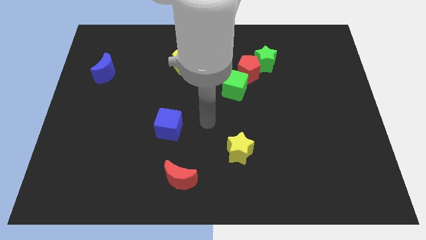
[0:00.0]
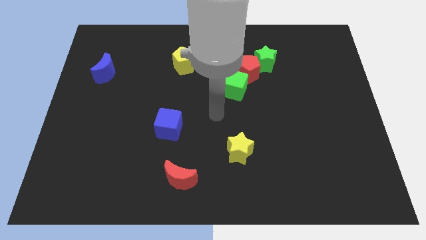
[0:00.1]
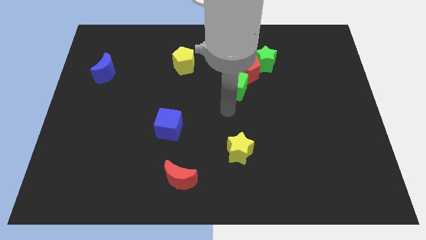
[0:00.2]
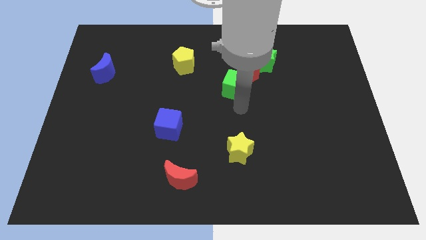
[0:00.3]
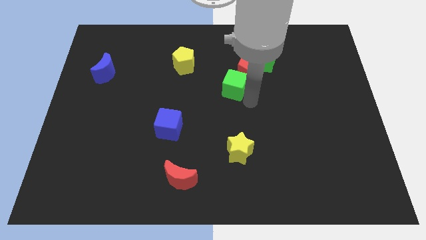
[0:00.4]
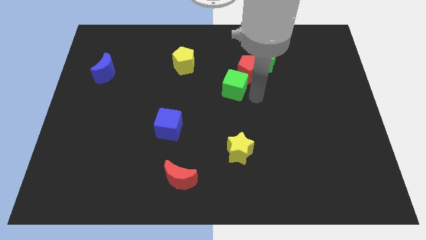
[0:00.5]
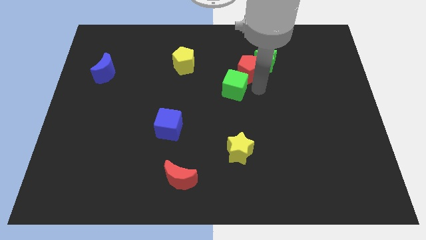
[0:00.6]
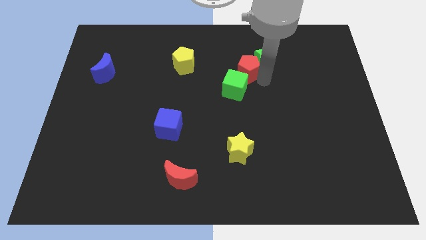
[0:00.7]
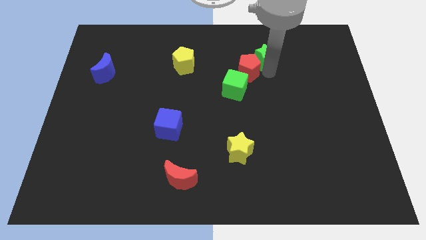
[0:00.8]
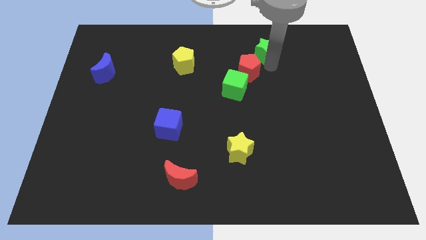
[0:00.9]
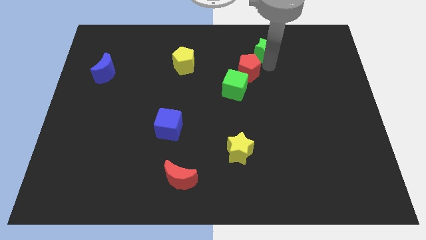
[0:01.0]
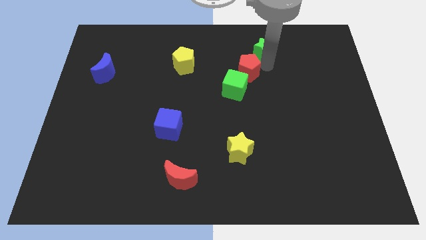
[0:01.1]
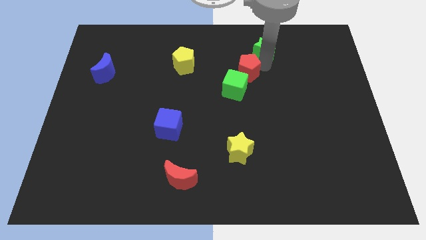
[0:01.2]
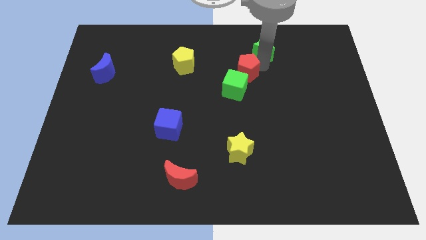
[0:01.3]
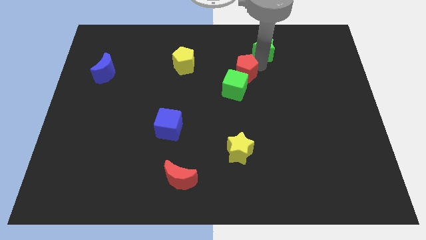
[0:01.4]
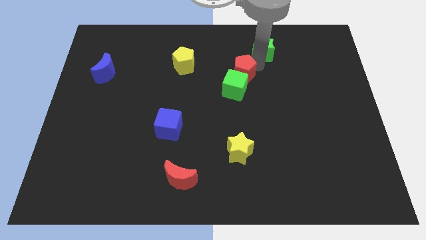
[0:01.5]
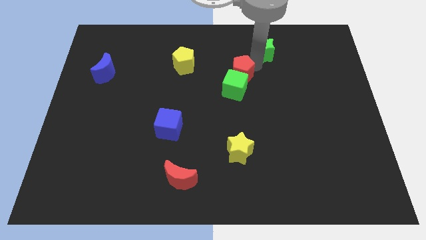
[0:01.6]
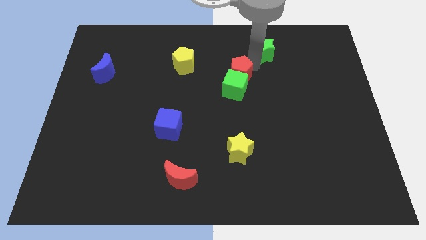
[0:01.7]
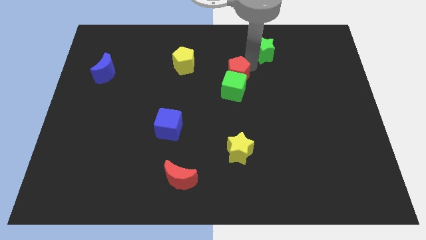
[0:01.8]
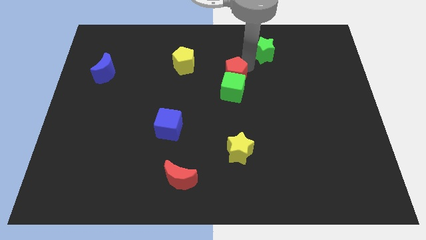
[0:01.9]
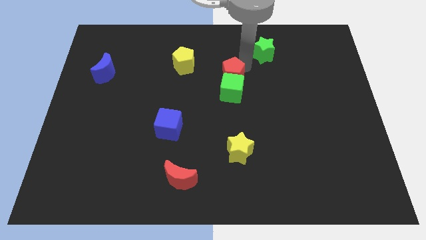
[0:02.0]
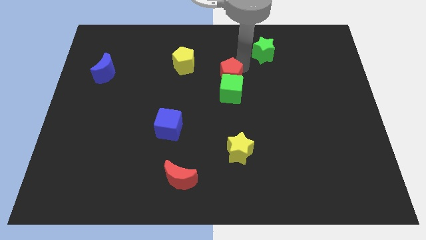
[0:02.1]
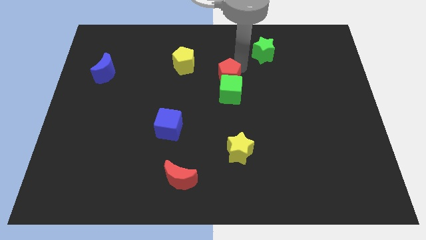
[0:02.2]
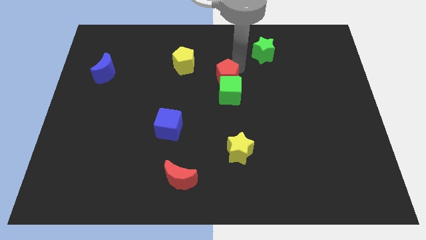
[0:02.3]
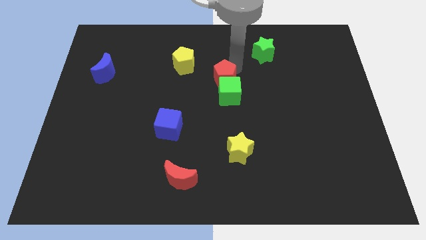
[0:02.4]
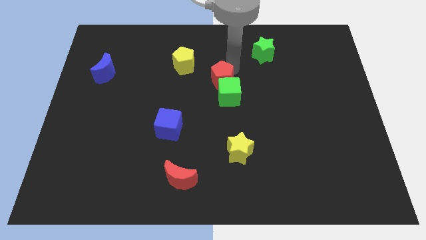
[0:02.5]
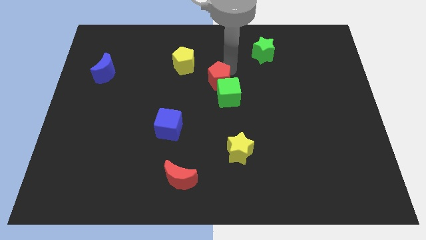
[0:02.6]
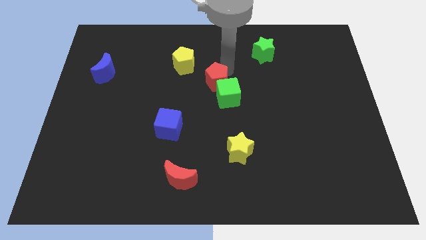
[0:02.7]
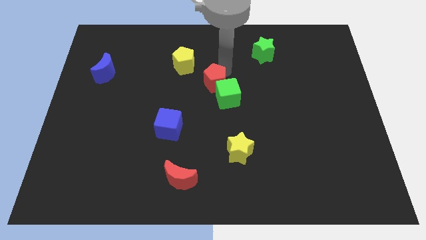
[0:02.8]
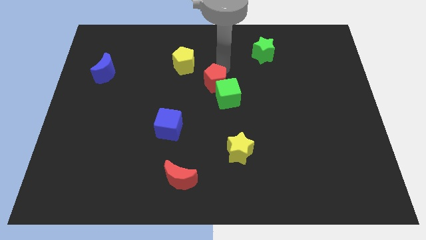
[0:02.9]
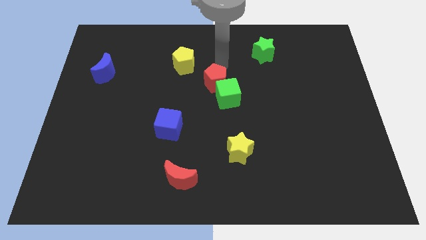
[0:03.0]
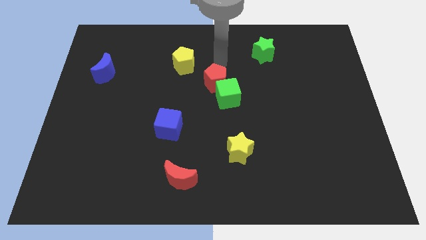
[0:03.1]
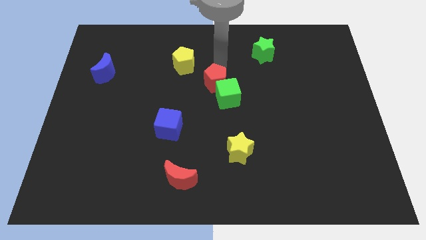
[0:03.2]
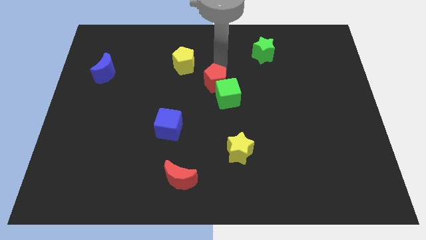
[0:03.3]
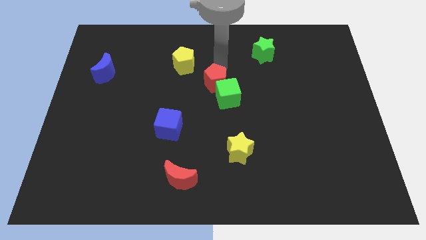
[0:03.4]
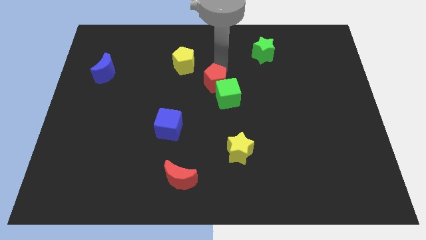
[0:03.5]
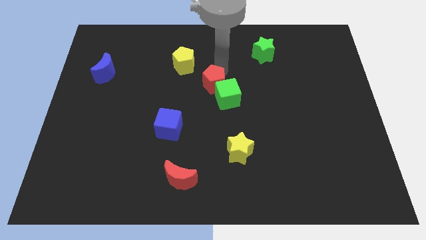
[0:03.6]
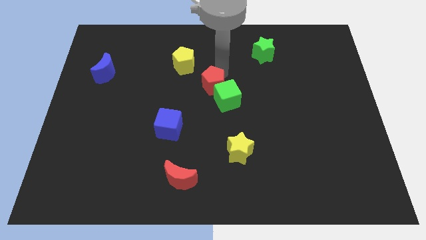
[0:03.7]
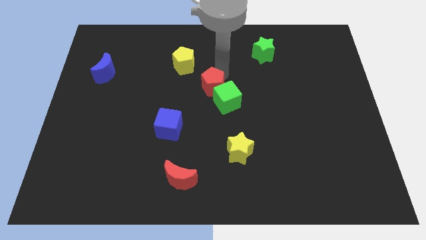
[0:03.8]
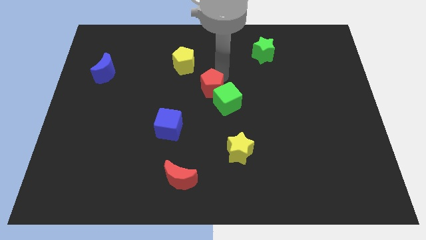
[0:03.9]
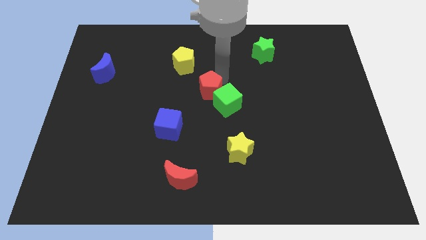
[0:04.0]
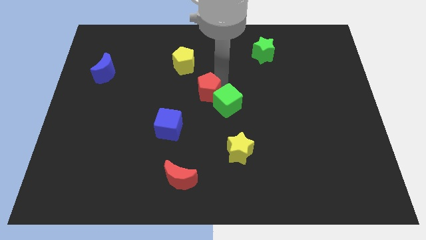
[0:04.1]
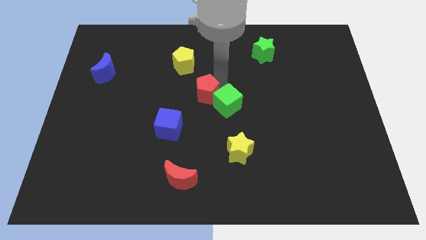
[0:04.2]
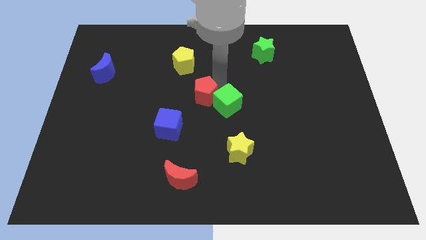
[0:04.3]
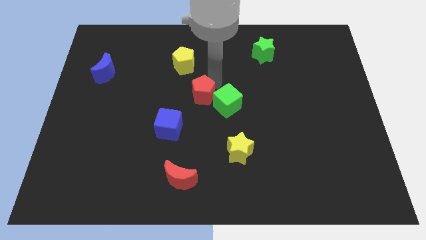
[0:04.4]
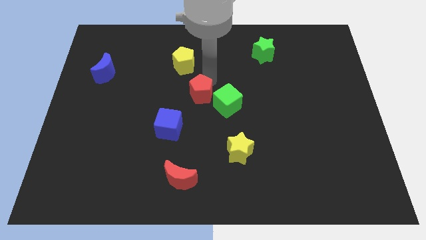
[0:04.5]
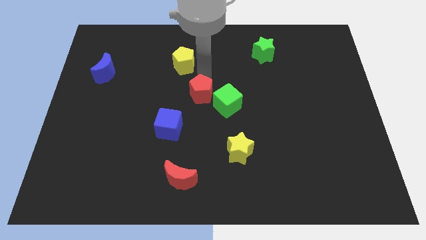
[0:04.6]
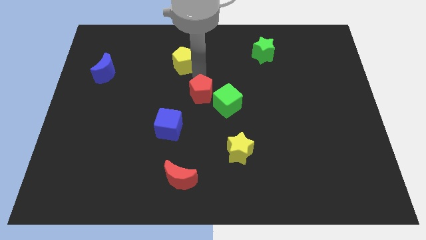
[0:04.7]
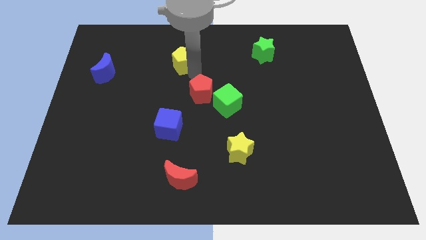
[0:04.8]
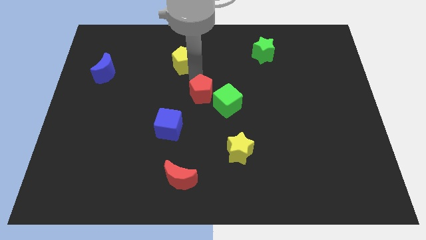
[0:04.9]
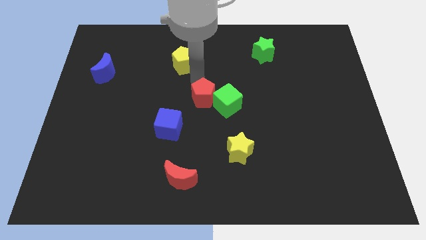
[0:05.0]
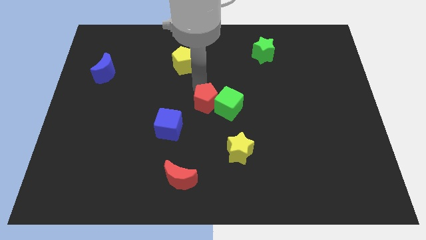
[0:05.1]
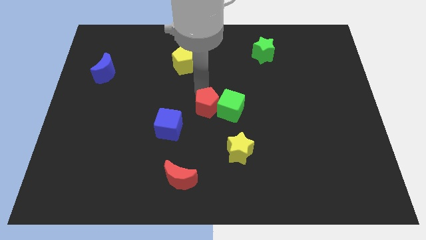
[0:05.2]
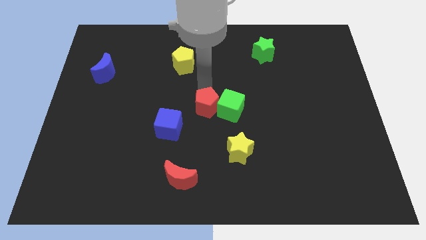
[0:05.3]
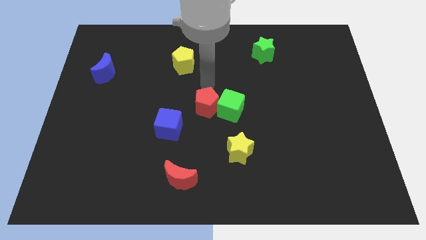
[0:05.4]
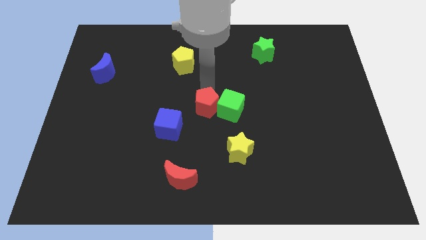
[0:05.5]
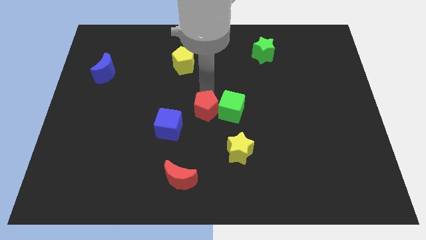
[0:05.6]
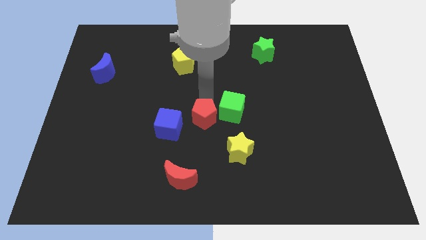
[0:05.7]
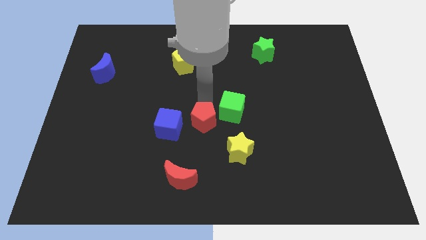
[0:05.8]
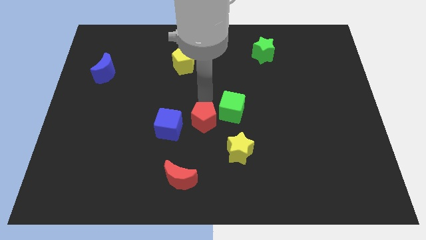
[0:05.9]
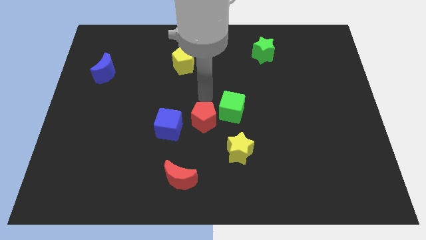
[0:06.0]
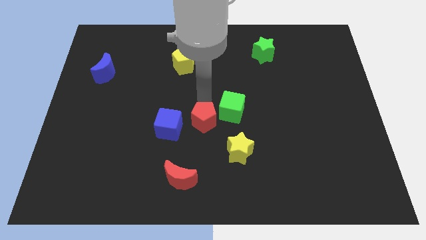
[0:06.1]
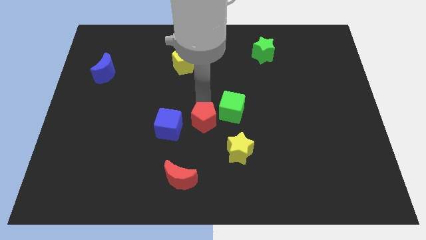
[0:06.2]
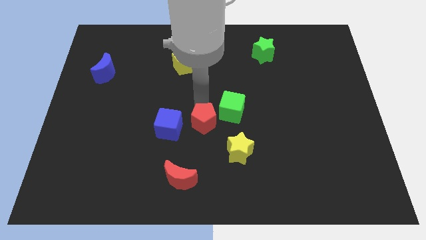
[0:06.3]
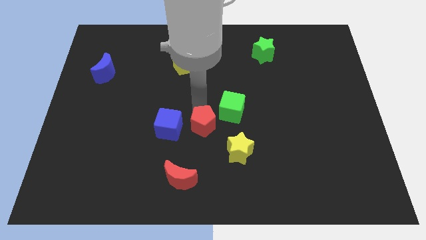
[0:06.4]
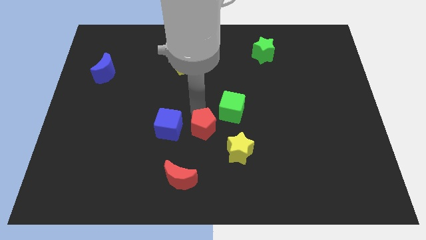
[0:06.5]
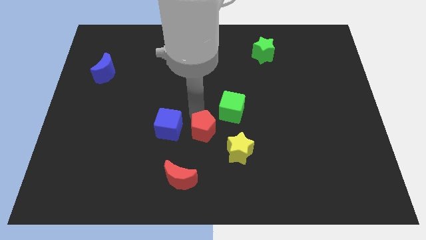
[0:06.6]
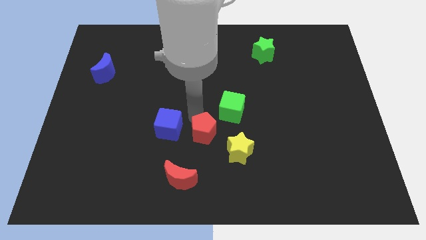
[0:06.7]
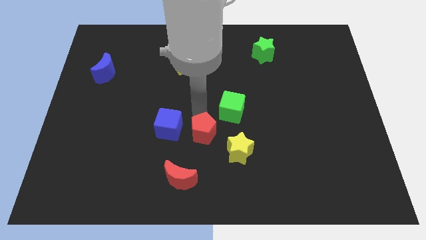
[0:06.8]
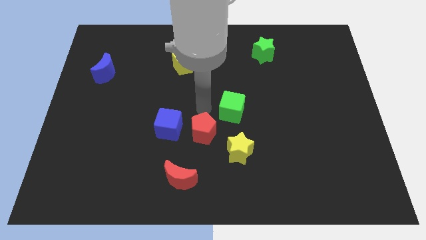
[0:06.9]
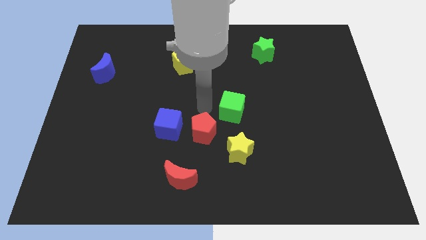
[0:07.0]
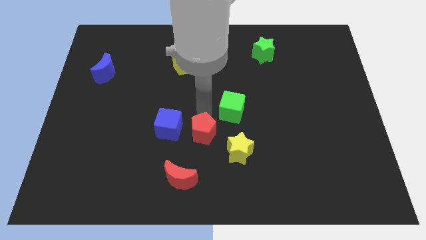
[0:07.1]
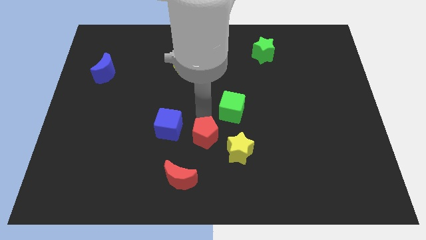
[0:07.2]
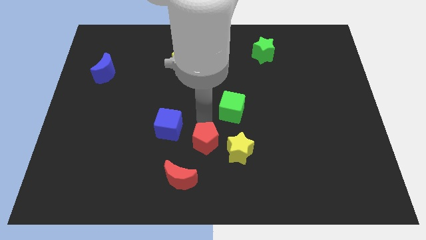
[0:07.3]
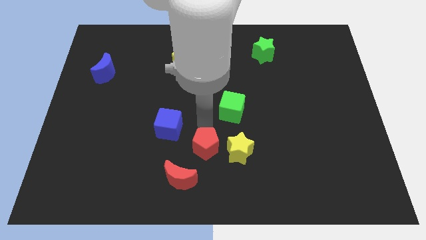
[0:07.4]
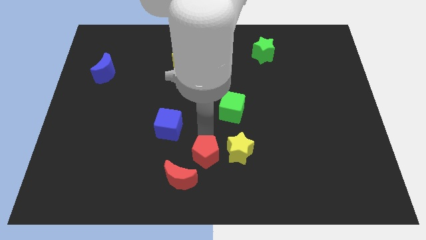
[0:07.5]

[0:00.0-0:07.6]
slide the red pentagon to the bottom side
